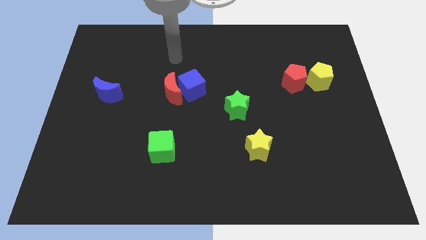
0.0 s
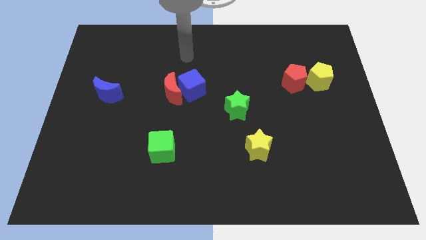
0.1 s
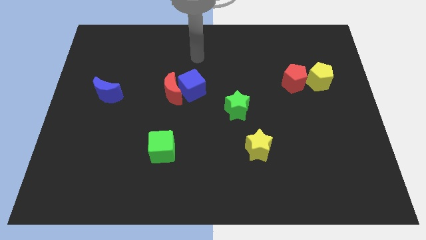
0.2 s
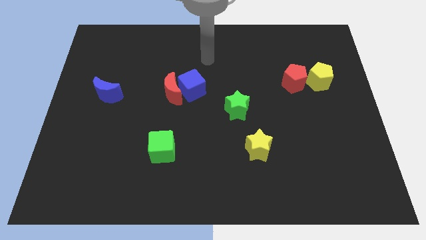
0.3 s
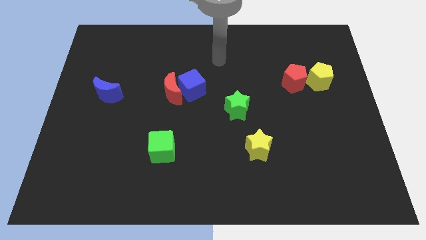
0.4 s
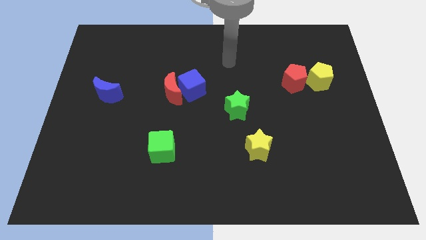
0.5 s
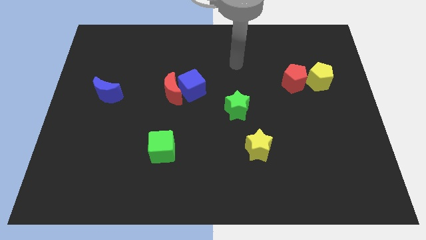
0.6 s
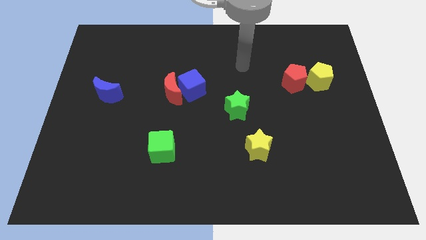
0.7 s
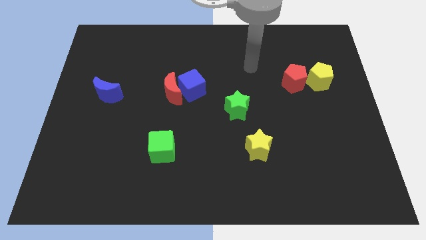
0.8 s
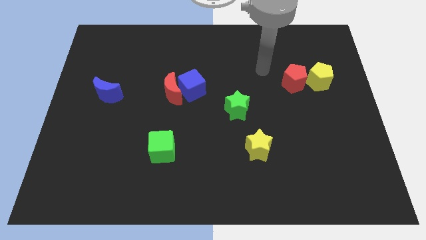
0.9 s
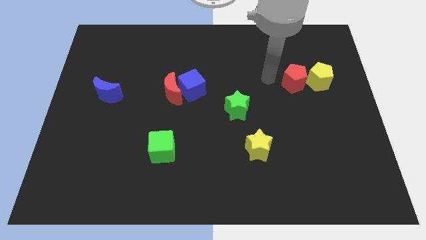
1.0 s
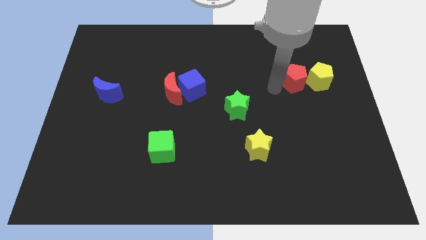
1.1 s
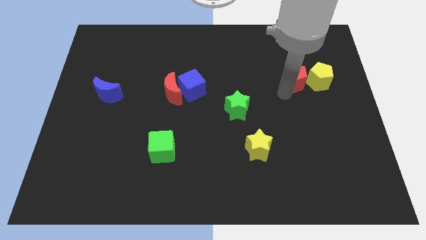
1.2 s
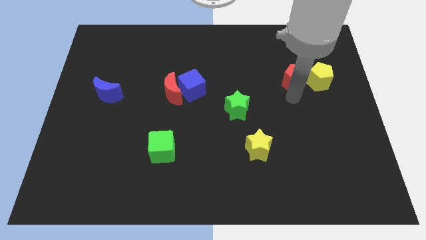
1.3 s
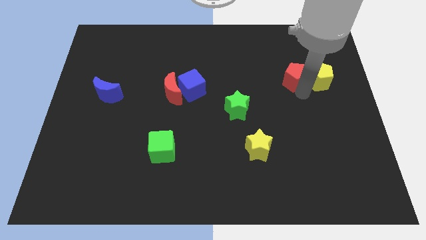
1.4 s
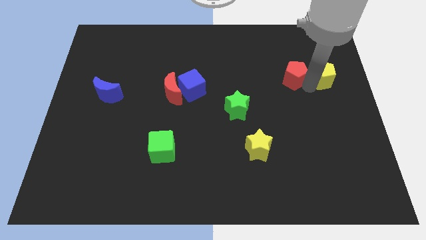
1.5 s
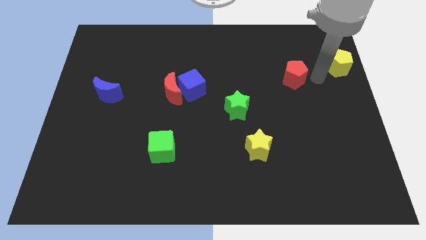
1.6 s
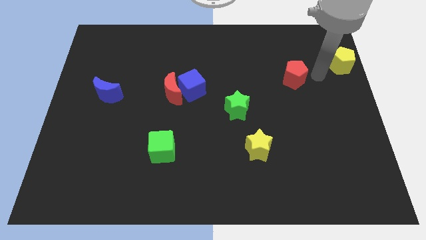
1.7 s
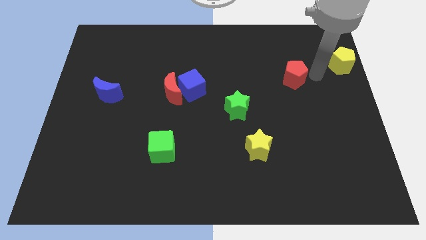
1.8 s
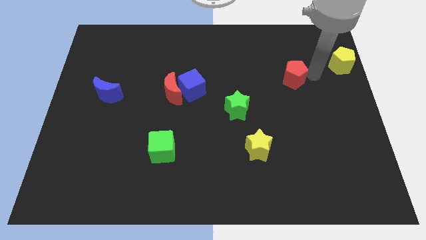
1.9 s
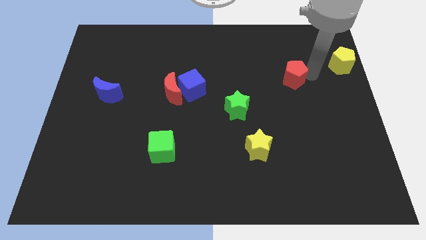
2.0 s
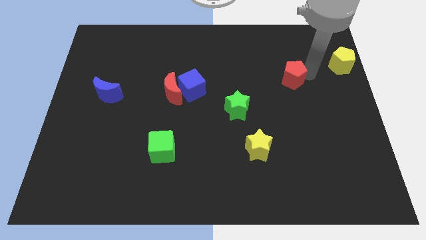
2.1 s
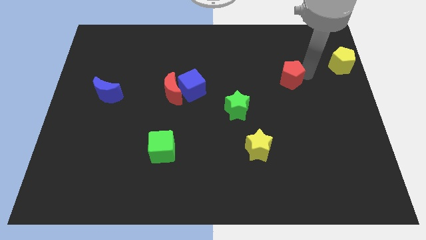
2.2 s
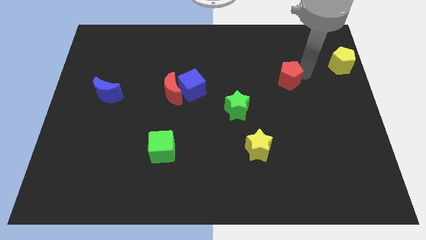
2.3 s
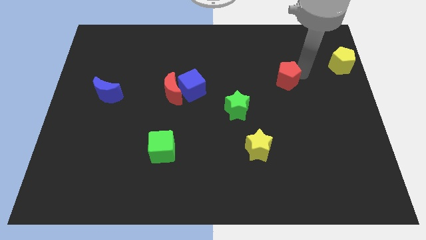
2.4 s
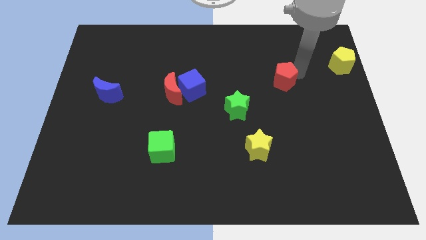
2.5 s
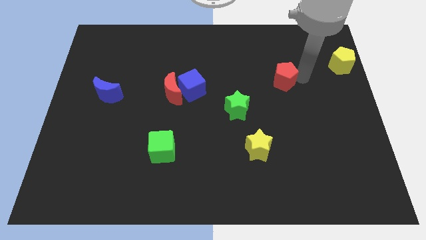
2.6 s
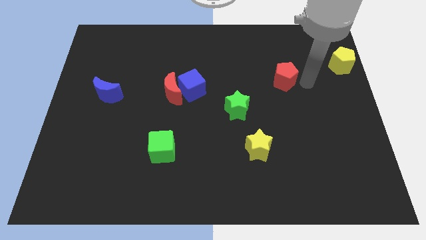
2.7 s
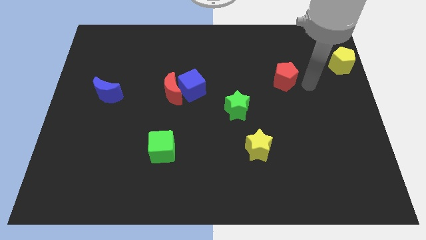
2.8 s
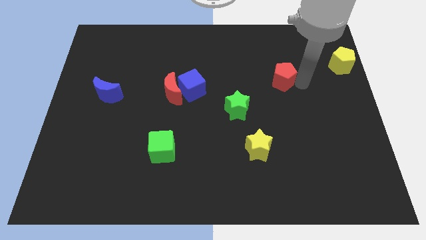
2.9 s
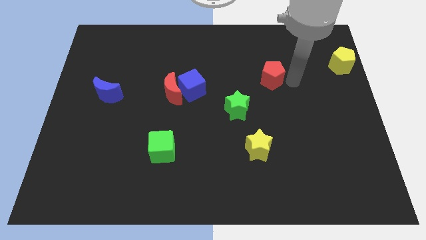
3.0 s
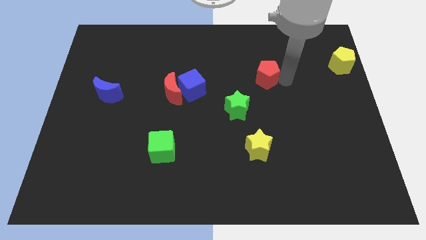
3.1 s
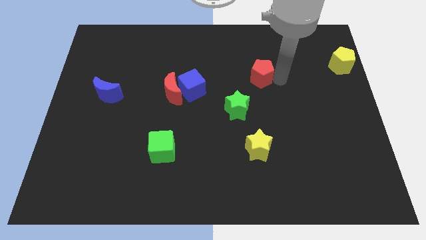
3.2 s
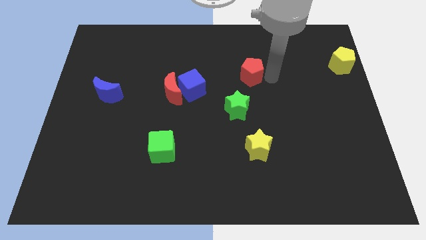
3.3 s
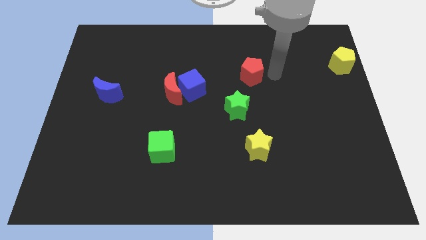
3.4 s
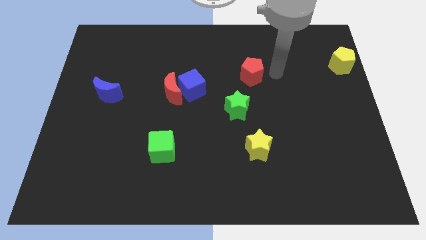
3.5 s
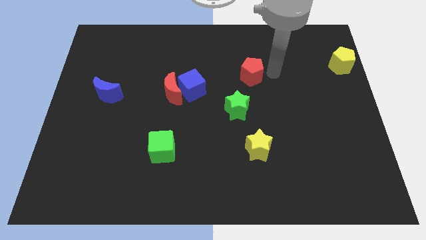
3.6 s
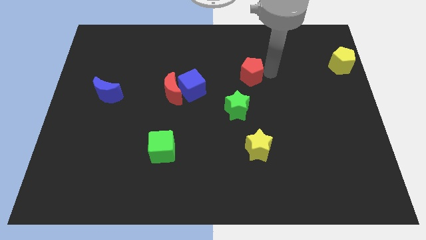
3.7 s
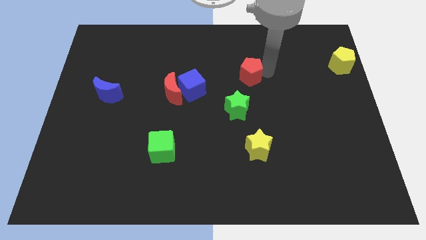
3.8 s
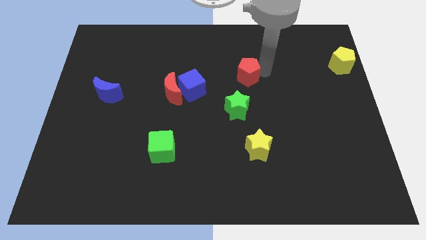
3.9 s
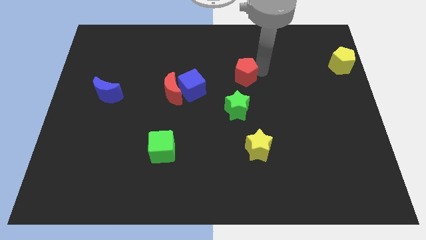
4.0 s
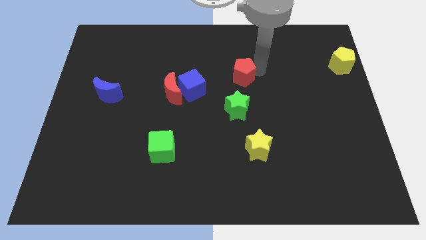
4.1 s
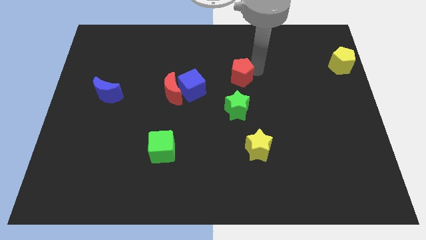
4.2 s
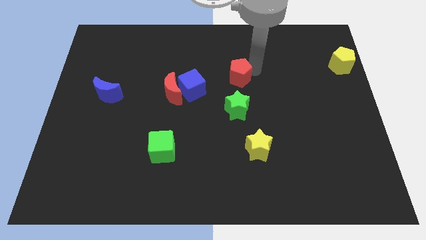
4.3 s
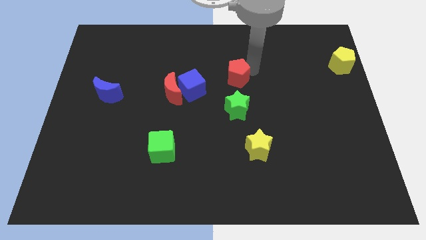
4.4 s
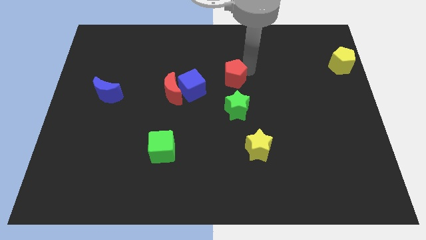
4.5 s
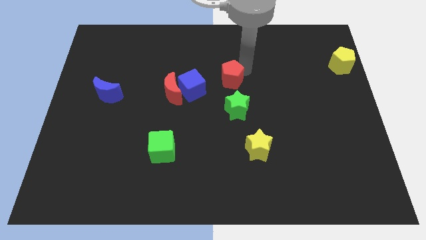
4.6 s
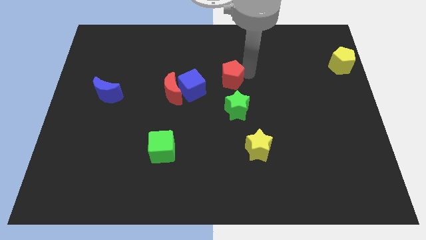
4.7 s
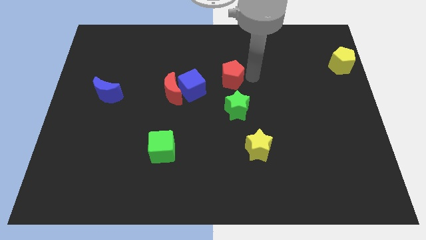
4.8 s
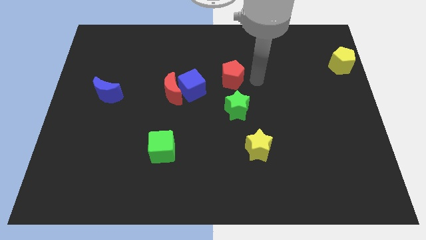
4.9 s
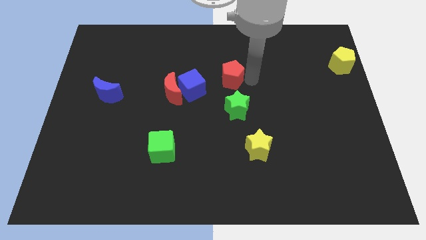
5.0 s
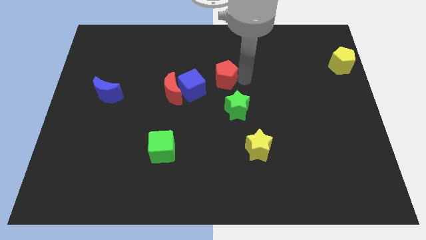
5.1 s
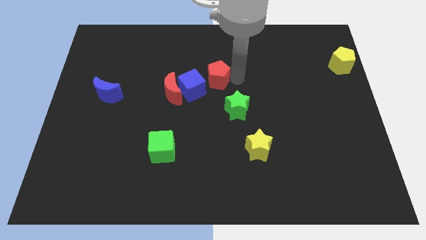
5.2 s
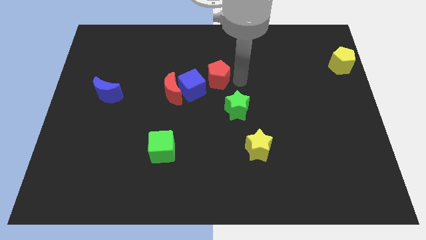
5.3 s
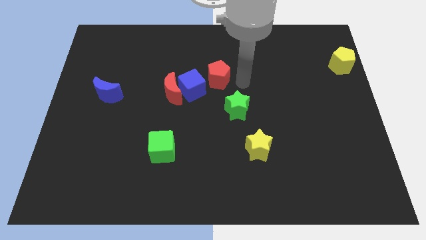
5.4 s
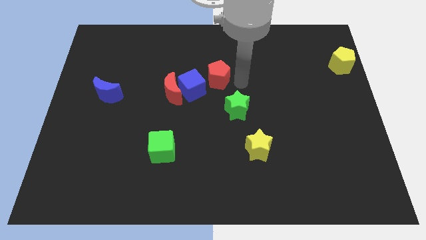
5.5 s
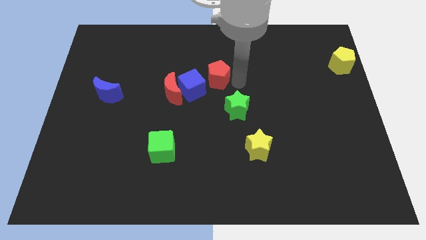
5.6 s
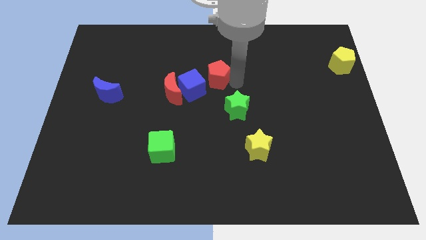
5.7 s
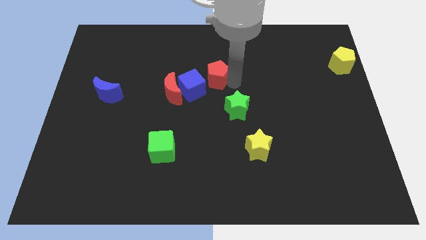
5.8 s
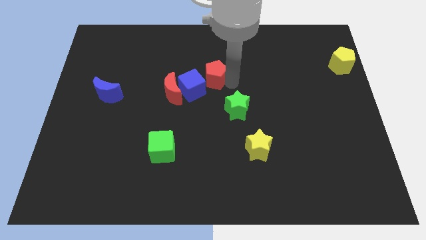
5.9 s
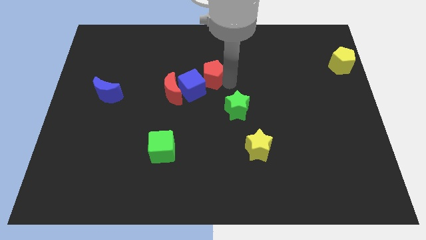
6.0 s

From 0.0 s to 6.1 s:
move the red pentagon to the left

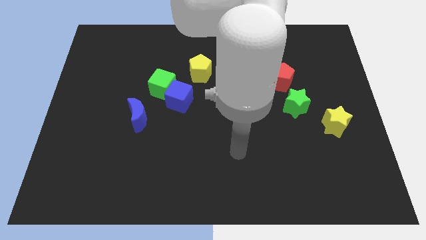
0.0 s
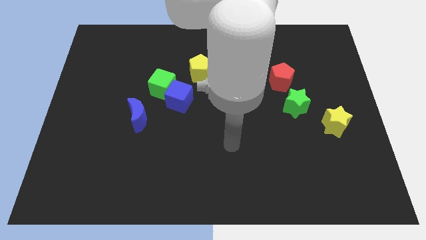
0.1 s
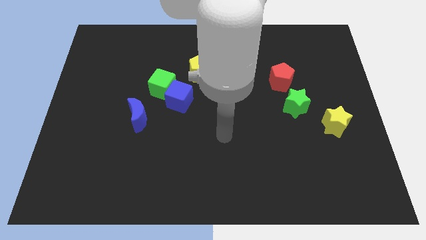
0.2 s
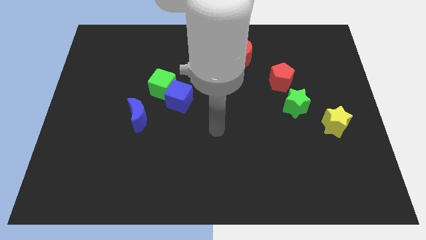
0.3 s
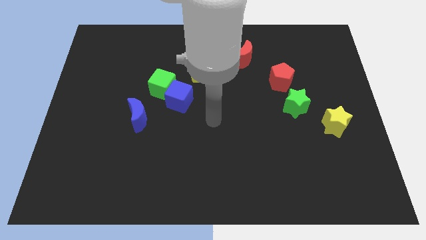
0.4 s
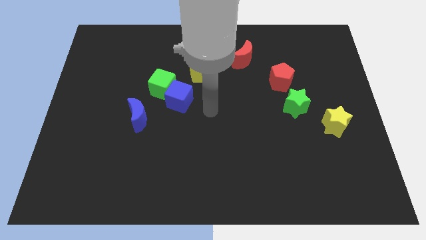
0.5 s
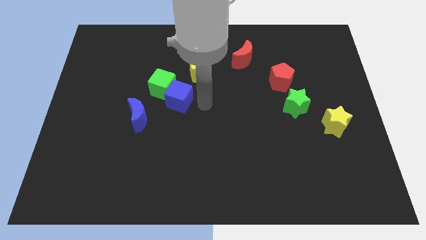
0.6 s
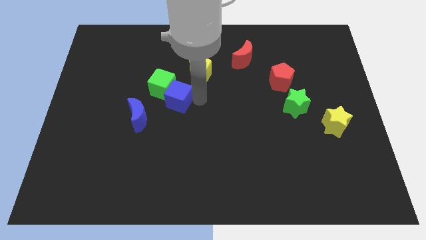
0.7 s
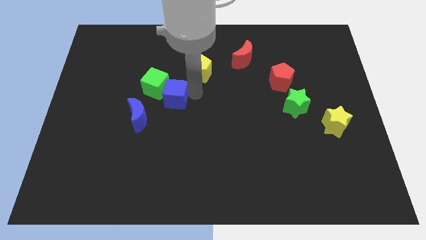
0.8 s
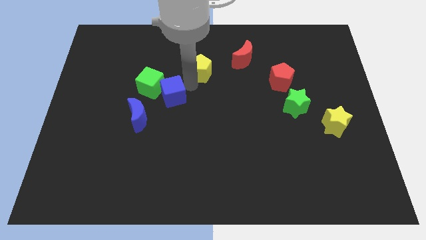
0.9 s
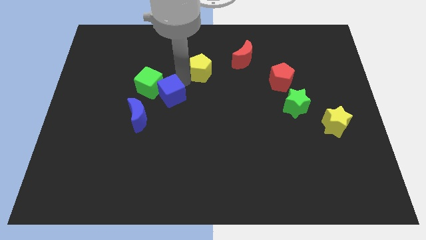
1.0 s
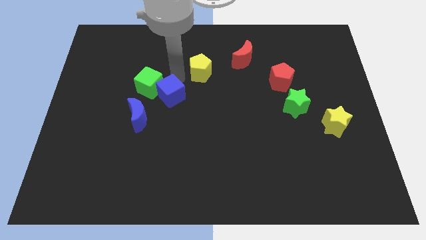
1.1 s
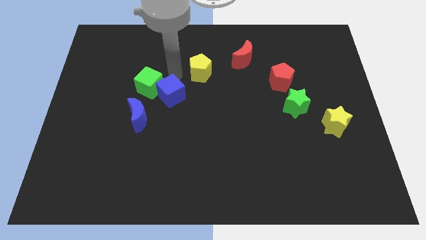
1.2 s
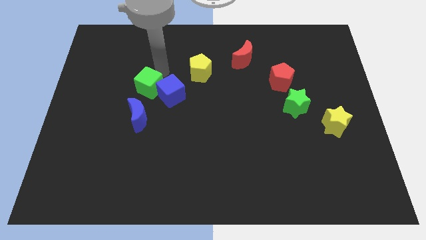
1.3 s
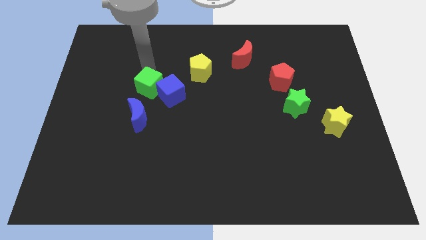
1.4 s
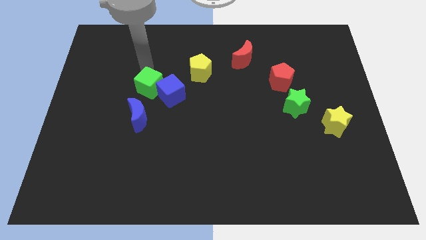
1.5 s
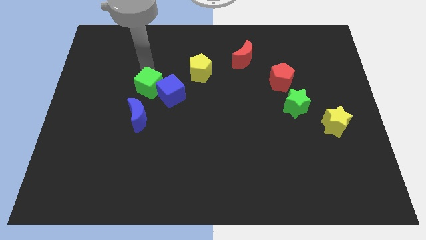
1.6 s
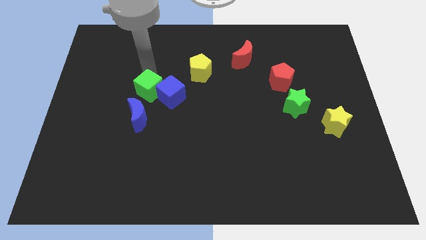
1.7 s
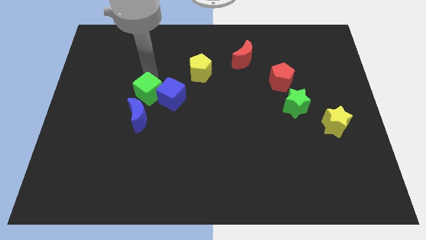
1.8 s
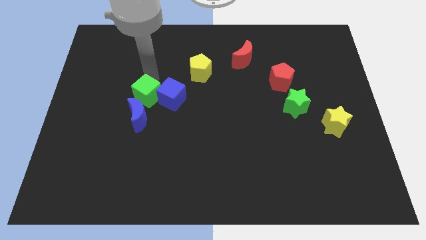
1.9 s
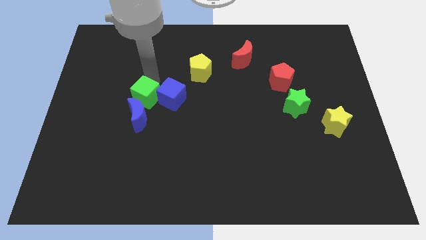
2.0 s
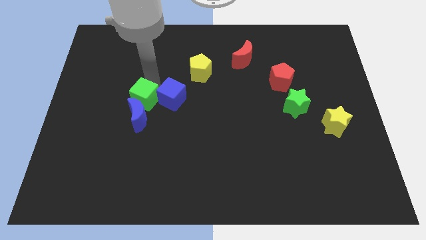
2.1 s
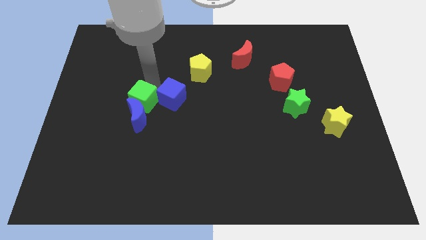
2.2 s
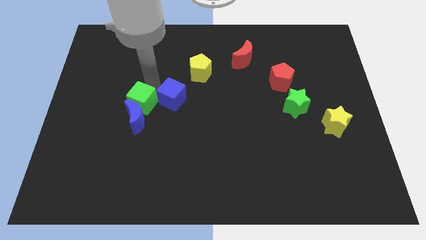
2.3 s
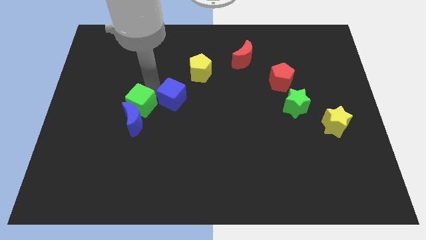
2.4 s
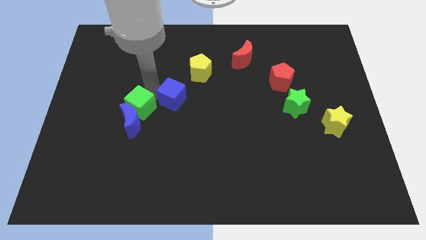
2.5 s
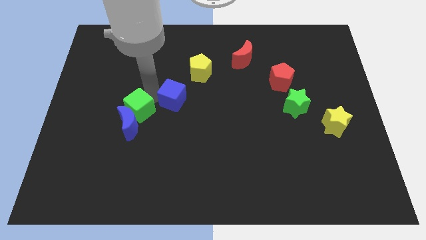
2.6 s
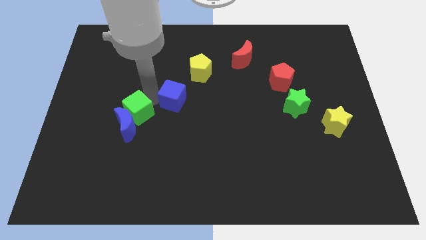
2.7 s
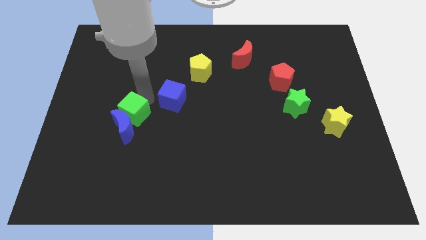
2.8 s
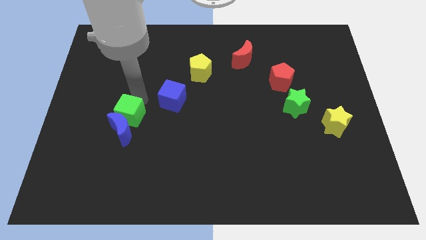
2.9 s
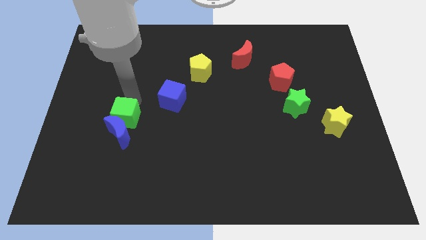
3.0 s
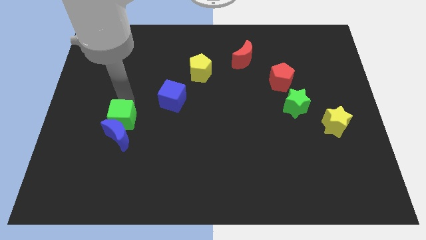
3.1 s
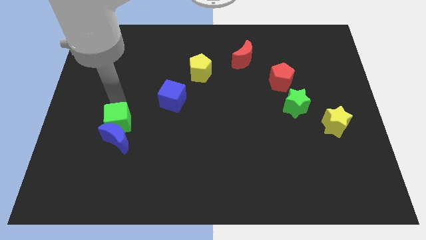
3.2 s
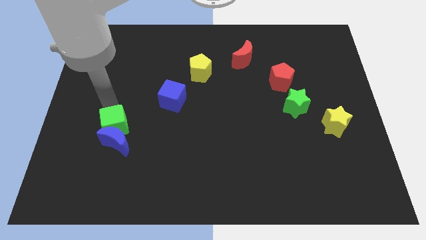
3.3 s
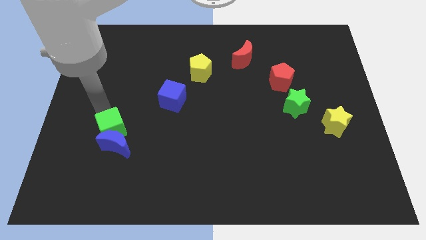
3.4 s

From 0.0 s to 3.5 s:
push the green cube down somewhat
